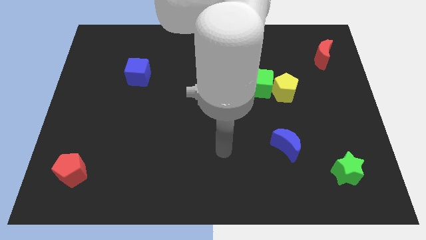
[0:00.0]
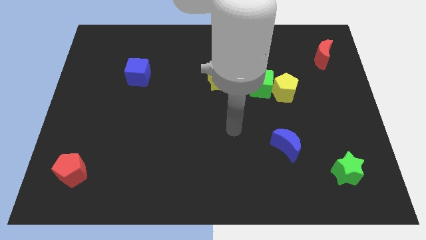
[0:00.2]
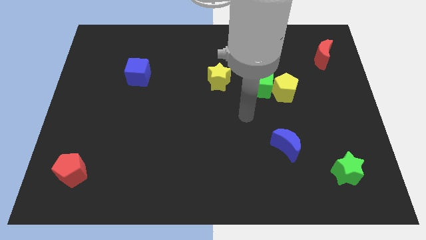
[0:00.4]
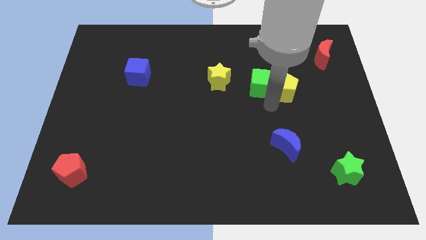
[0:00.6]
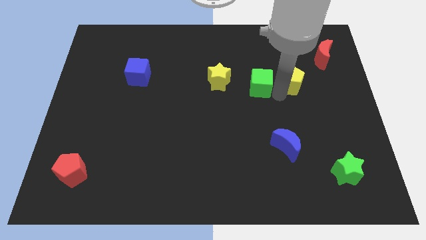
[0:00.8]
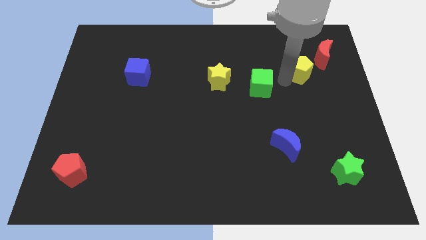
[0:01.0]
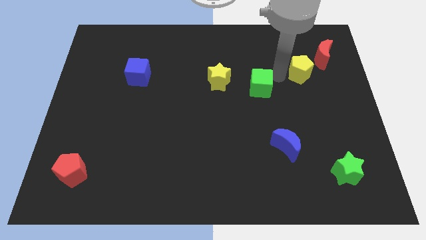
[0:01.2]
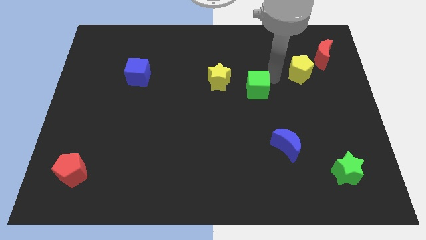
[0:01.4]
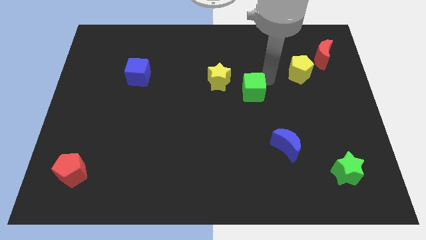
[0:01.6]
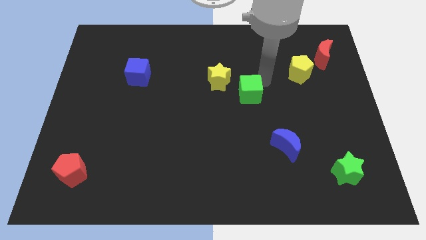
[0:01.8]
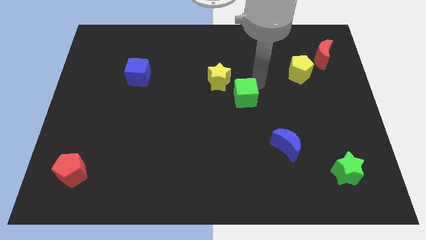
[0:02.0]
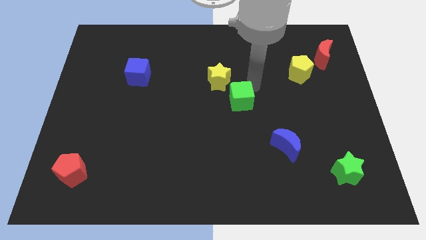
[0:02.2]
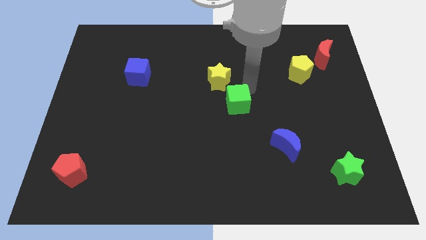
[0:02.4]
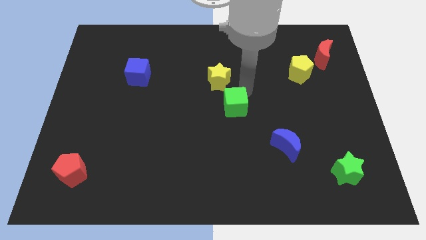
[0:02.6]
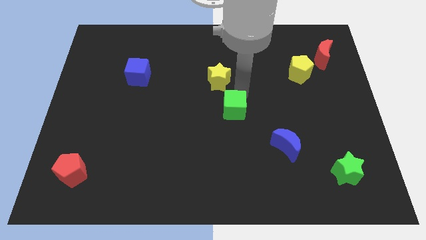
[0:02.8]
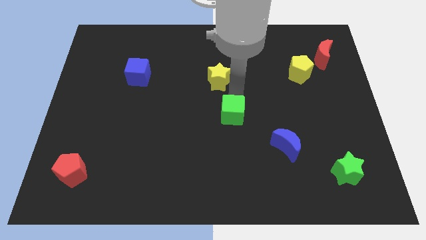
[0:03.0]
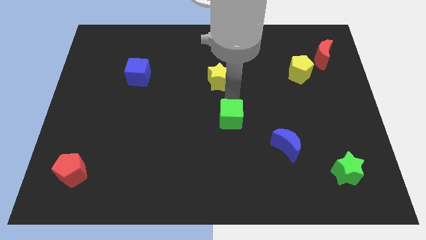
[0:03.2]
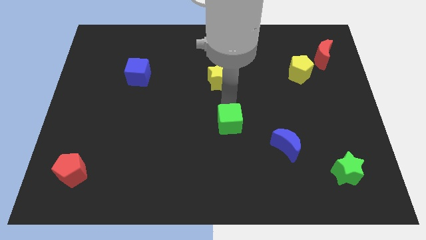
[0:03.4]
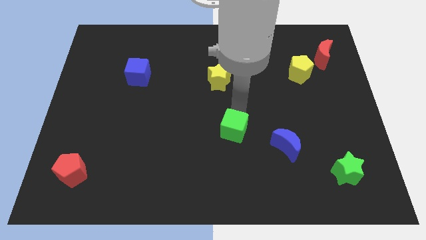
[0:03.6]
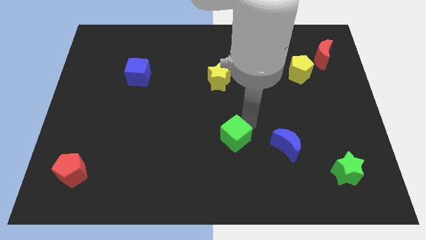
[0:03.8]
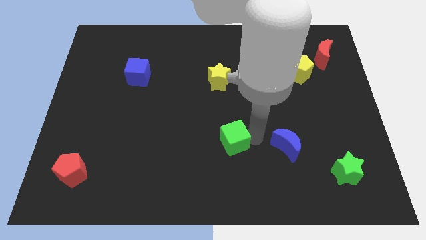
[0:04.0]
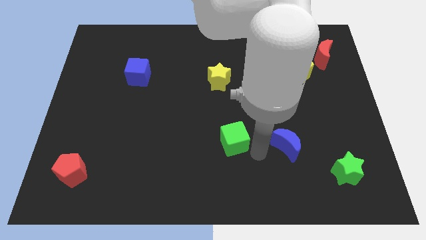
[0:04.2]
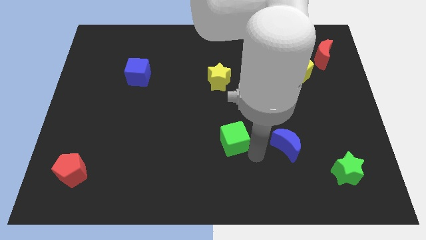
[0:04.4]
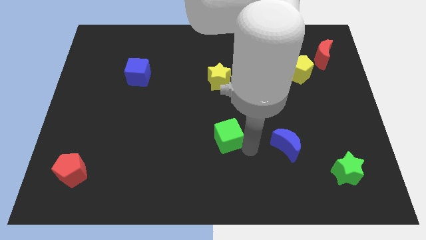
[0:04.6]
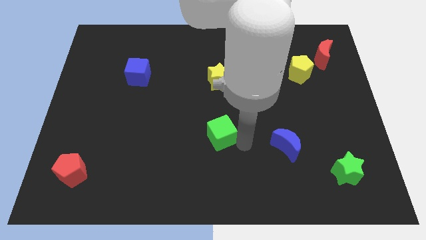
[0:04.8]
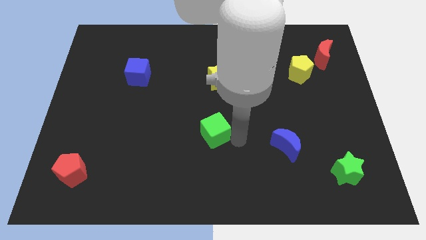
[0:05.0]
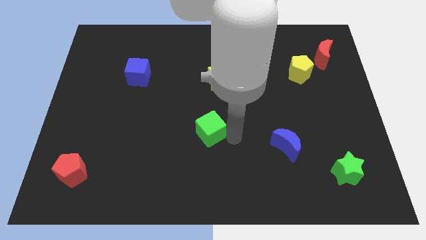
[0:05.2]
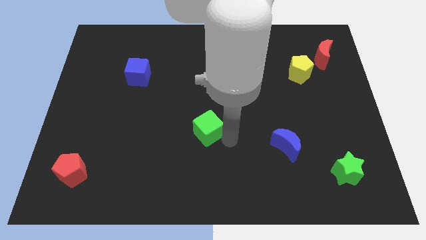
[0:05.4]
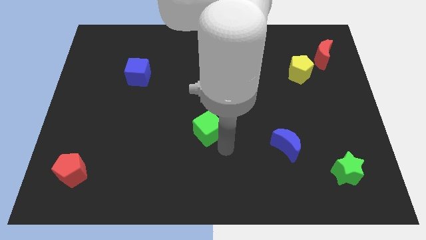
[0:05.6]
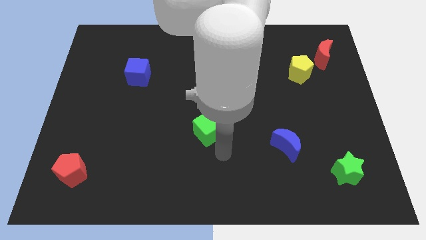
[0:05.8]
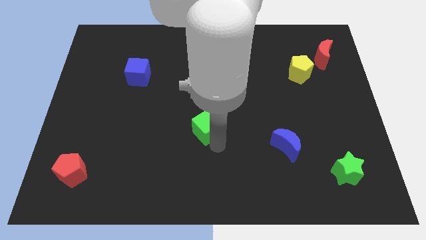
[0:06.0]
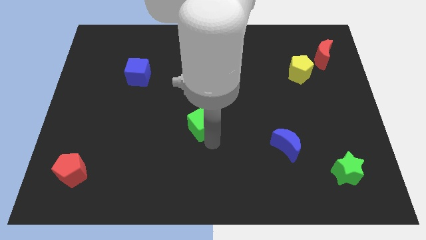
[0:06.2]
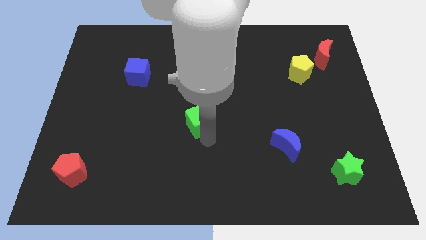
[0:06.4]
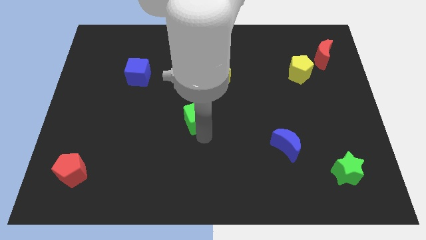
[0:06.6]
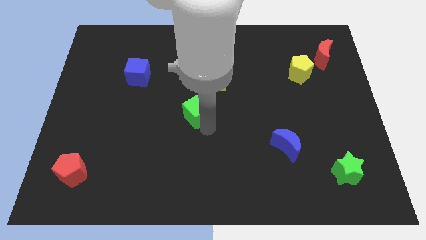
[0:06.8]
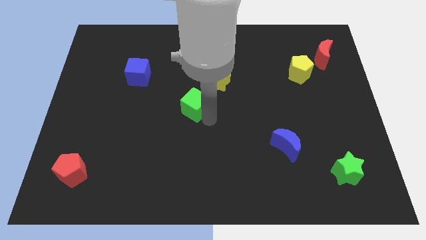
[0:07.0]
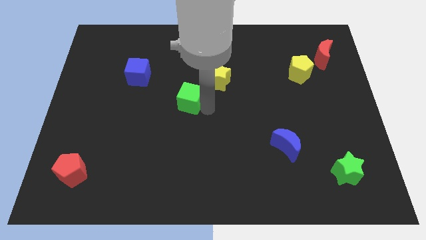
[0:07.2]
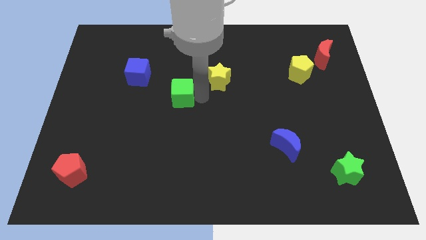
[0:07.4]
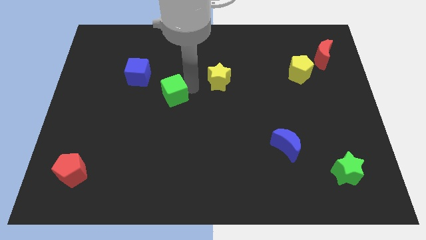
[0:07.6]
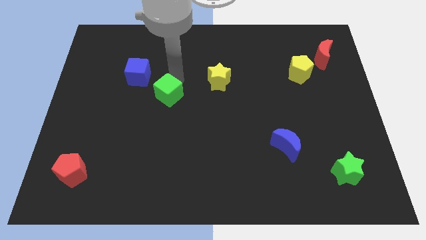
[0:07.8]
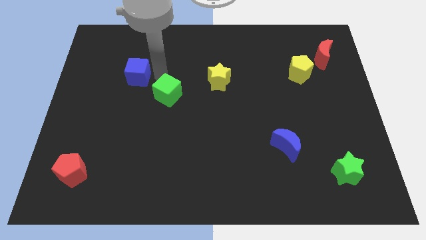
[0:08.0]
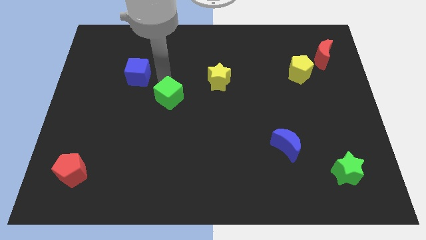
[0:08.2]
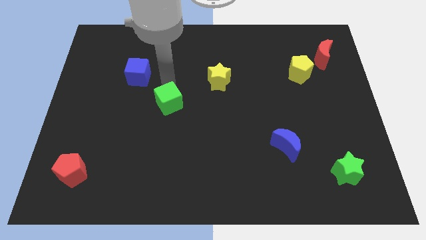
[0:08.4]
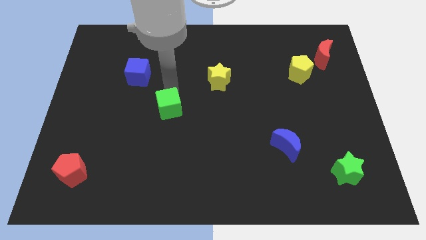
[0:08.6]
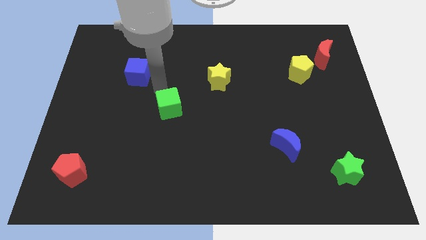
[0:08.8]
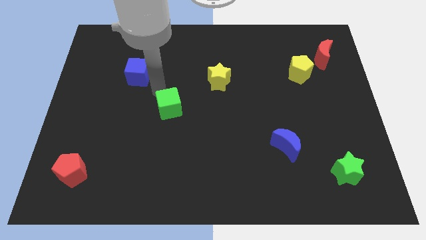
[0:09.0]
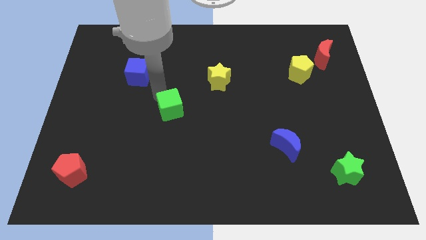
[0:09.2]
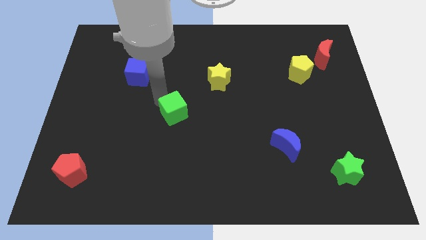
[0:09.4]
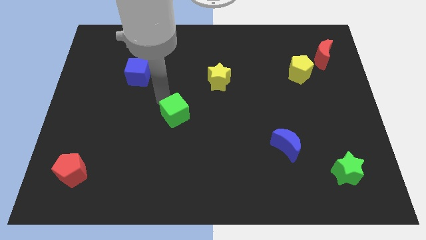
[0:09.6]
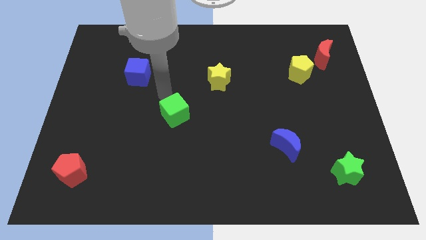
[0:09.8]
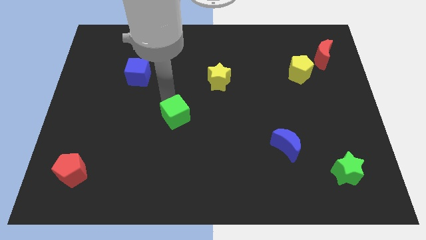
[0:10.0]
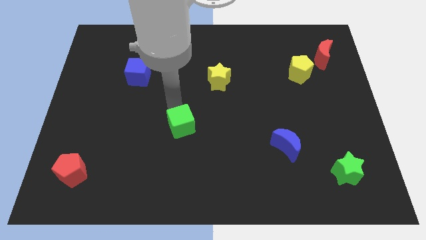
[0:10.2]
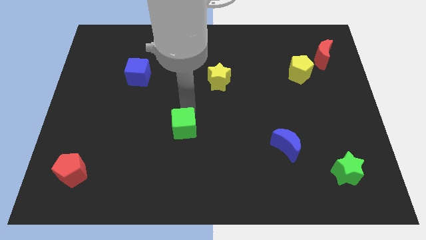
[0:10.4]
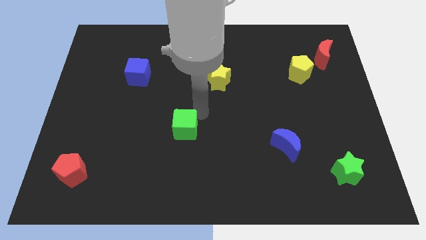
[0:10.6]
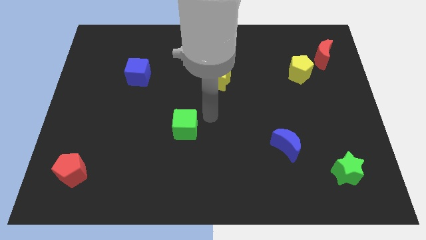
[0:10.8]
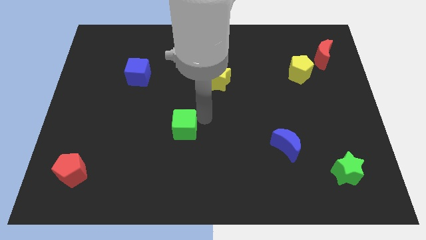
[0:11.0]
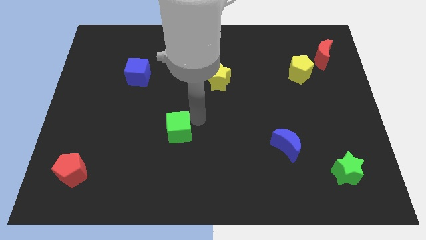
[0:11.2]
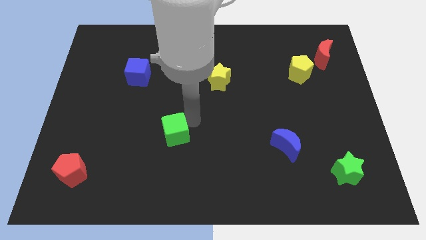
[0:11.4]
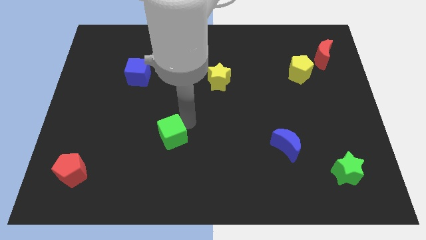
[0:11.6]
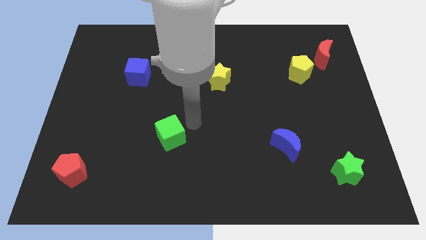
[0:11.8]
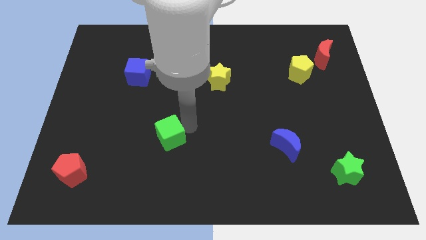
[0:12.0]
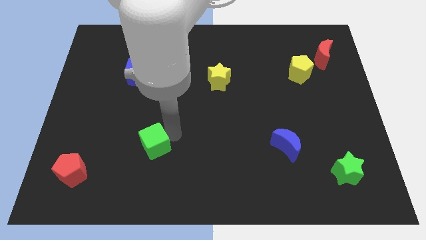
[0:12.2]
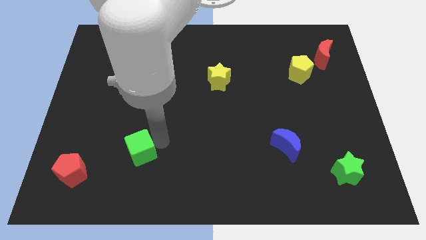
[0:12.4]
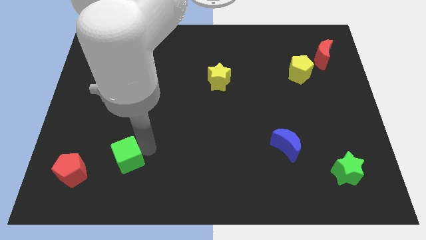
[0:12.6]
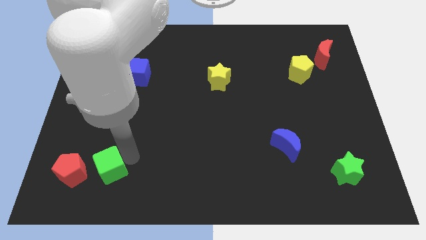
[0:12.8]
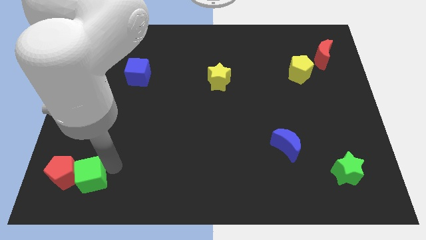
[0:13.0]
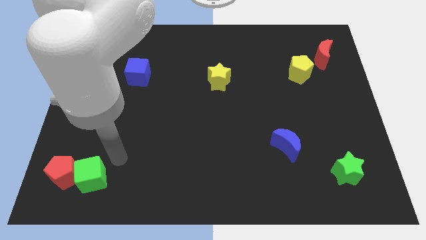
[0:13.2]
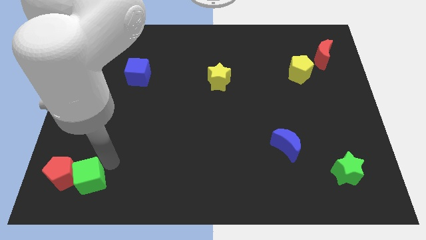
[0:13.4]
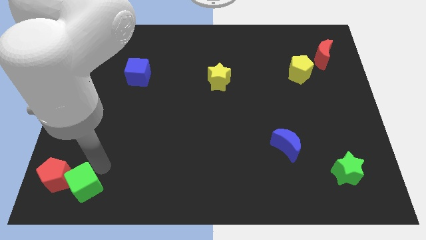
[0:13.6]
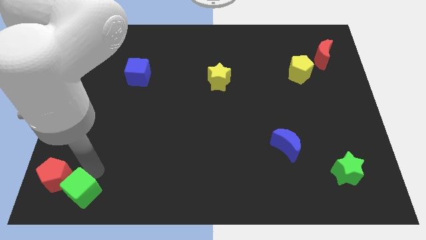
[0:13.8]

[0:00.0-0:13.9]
push the green cube to the bottom left

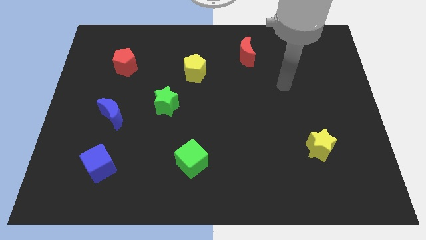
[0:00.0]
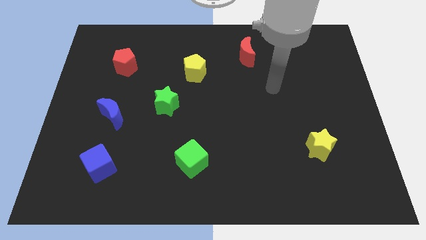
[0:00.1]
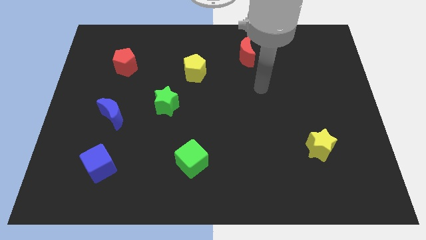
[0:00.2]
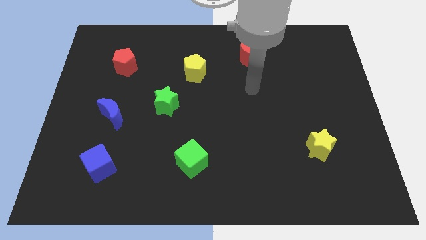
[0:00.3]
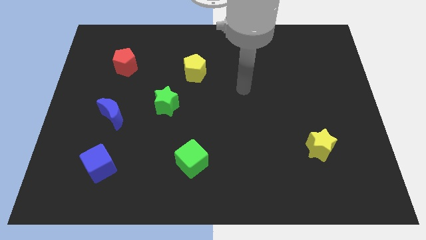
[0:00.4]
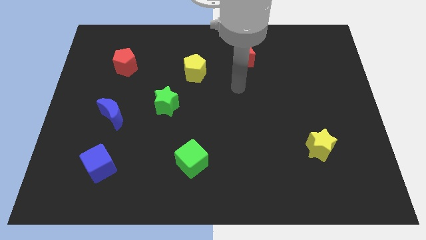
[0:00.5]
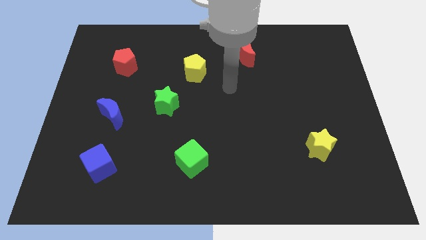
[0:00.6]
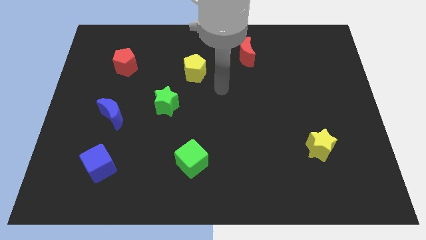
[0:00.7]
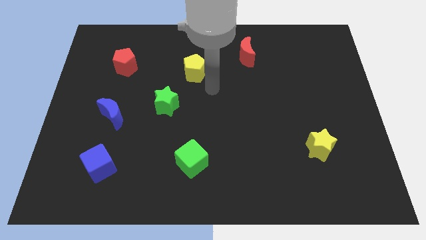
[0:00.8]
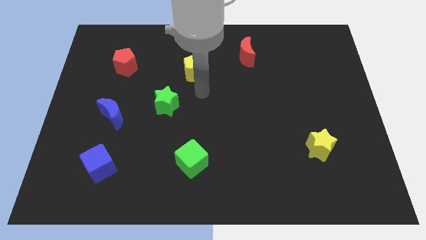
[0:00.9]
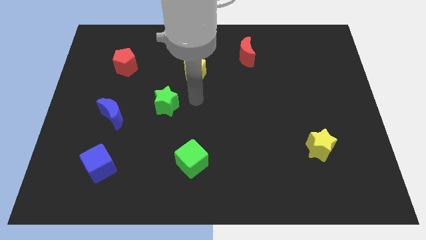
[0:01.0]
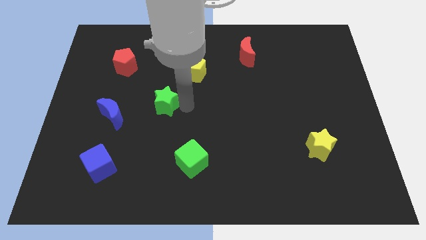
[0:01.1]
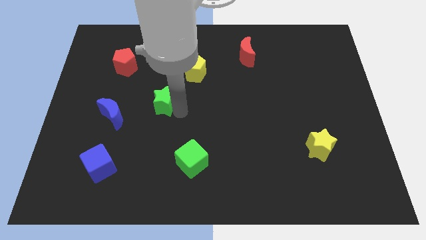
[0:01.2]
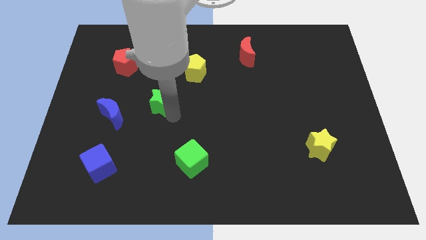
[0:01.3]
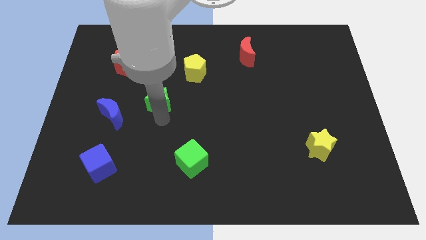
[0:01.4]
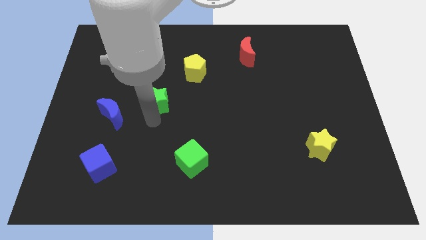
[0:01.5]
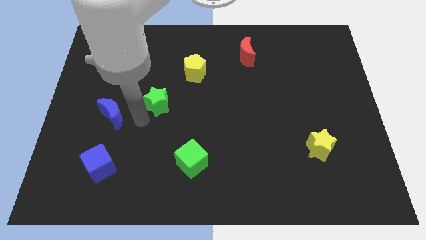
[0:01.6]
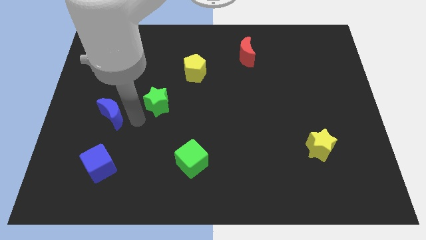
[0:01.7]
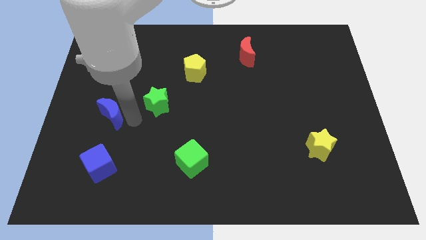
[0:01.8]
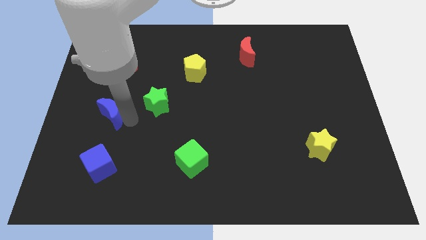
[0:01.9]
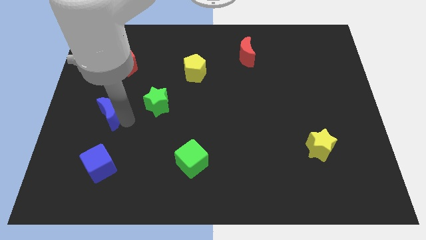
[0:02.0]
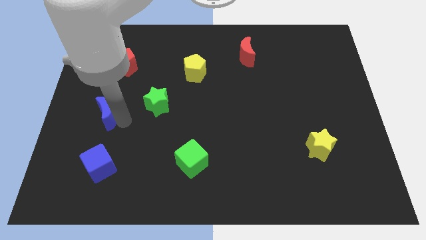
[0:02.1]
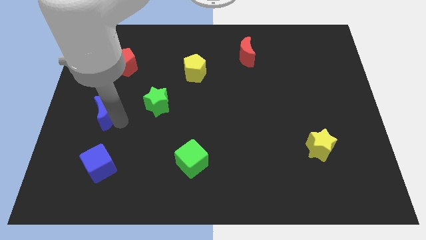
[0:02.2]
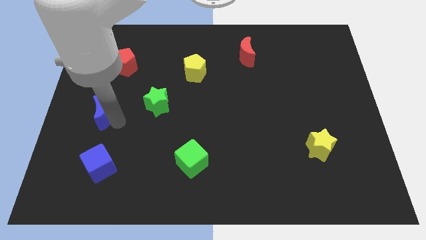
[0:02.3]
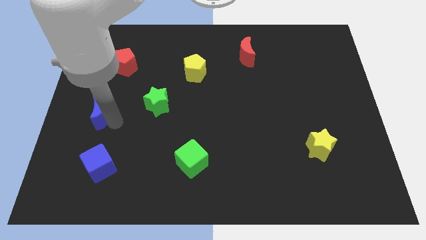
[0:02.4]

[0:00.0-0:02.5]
put the blue moon to the center left
